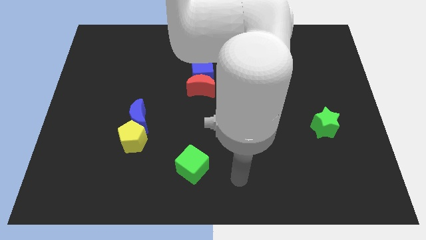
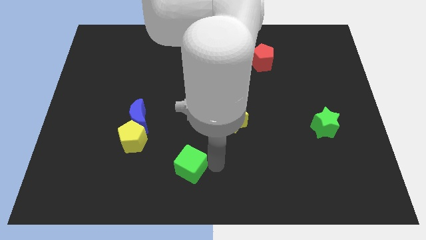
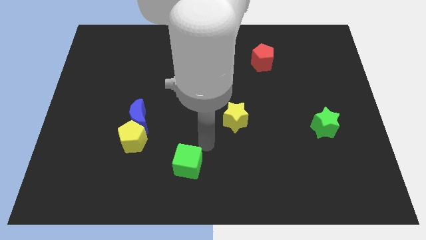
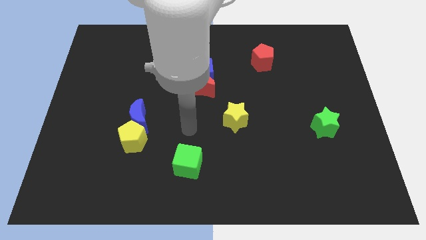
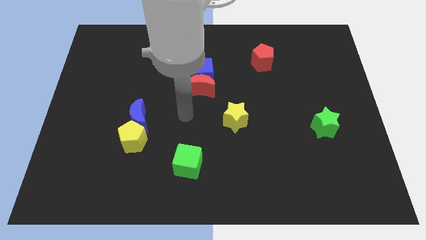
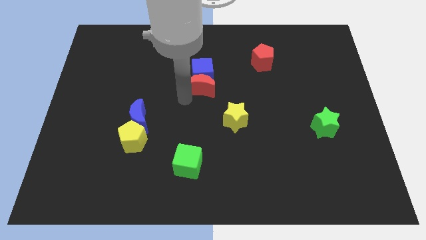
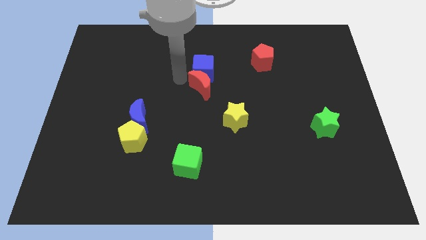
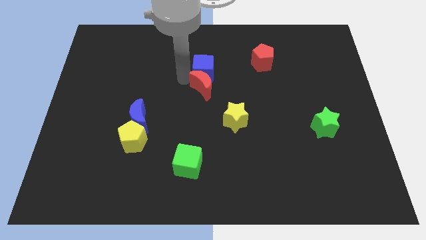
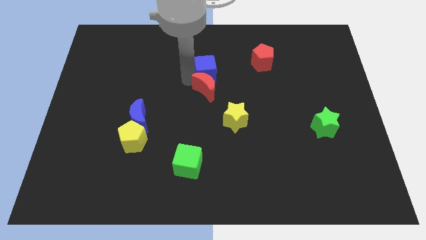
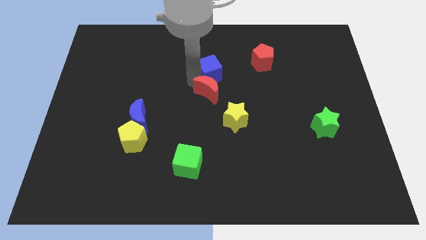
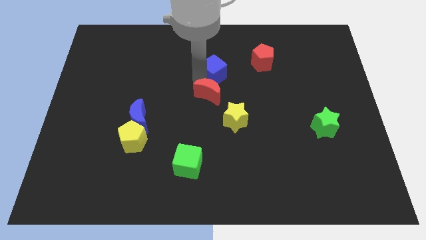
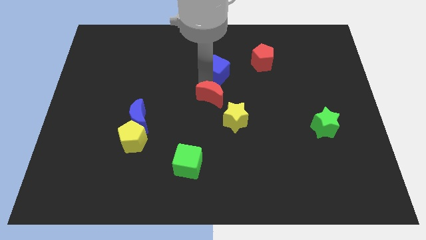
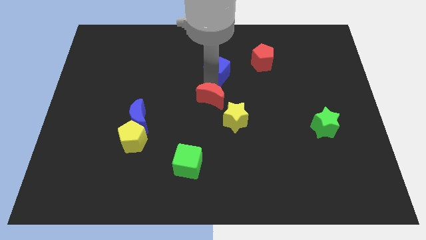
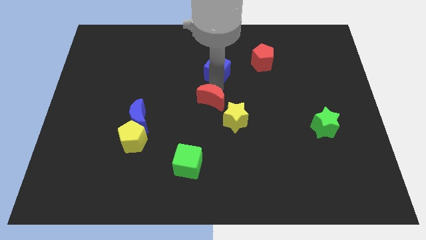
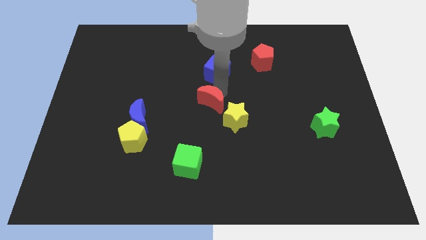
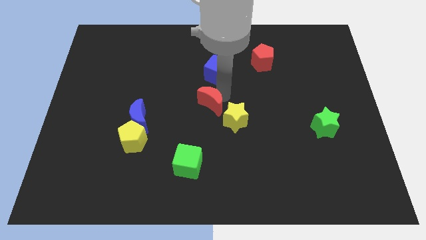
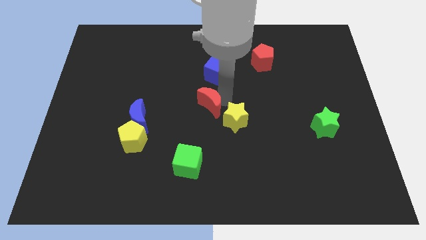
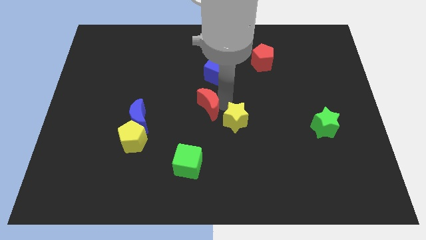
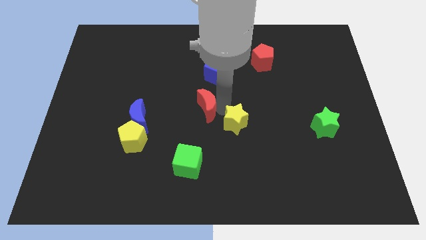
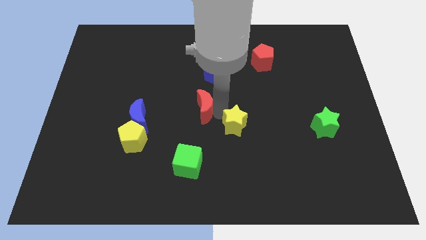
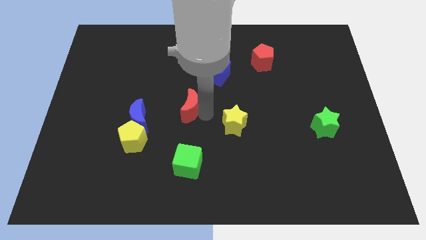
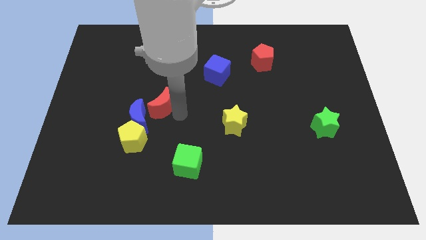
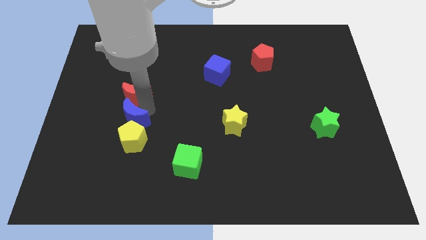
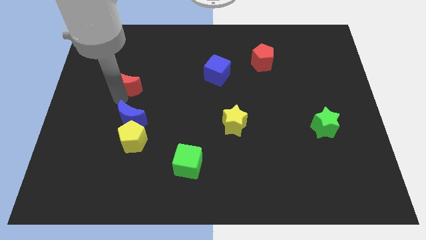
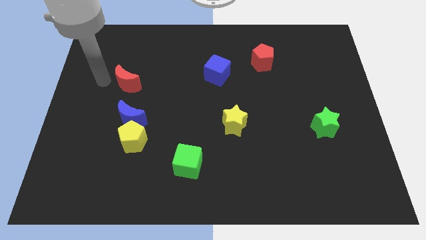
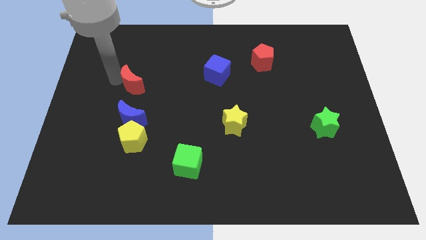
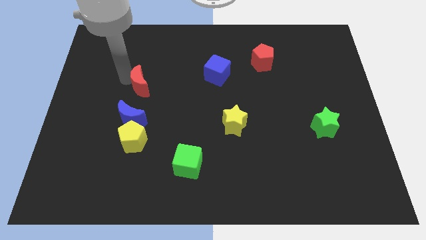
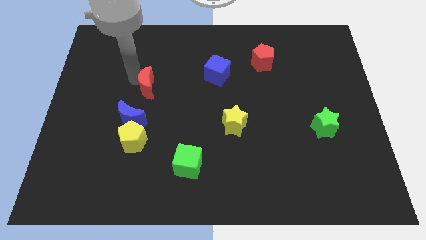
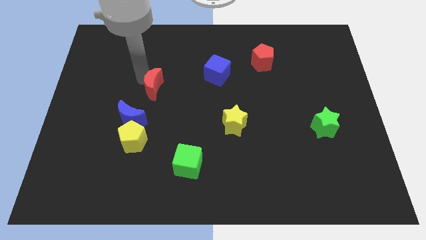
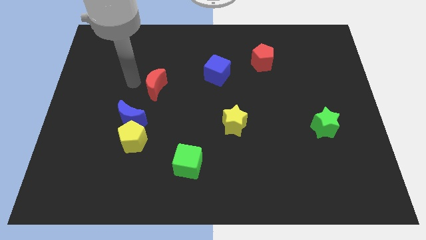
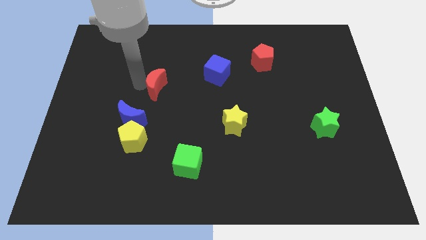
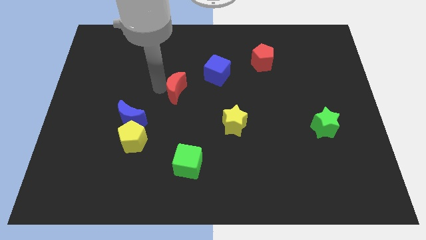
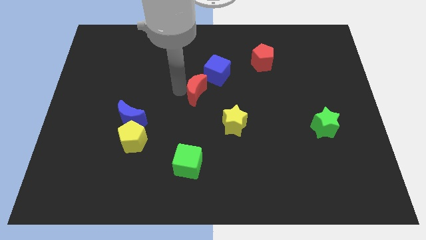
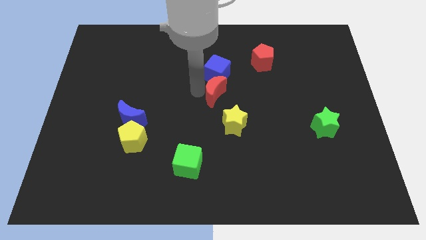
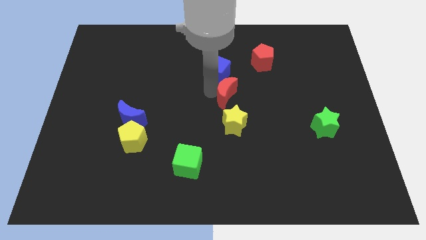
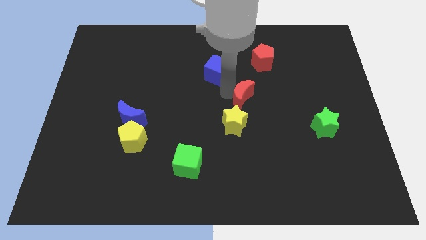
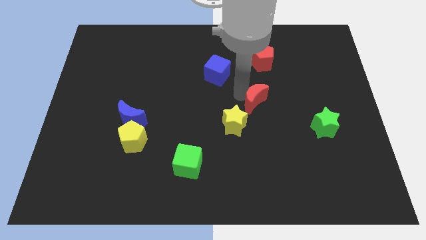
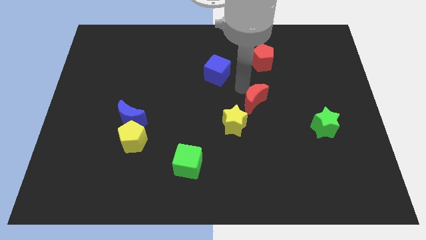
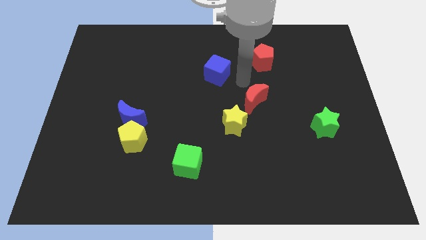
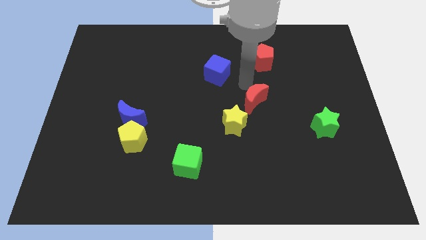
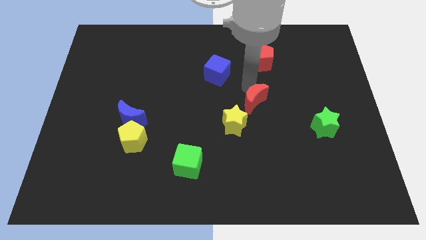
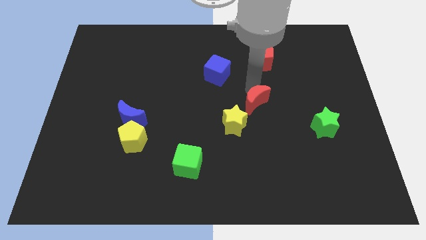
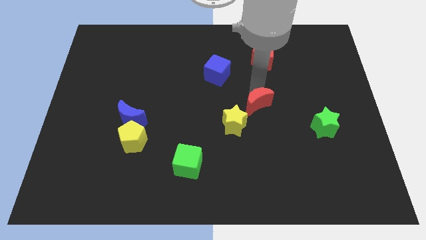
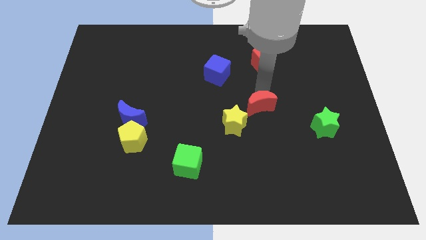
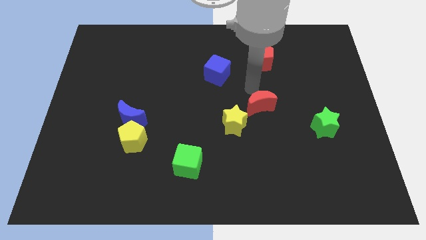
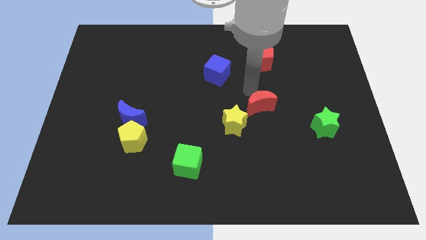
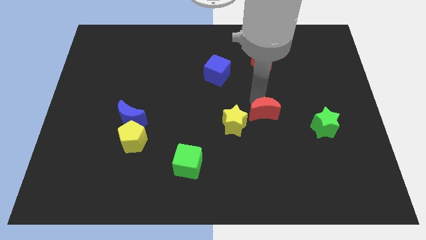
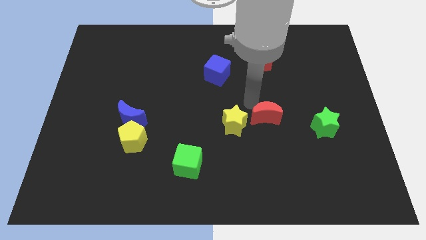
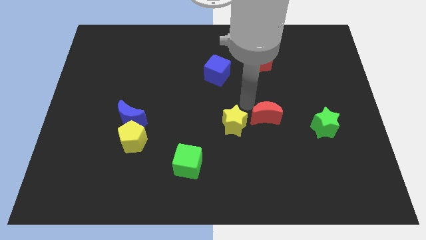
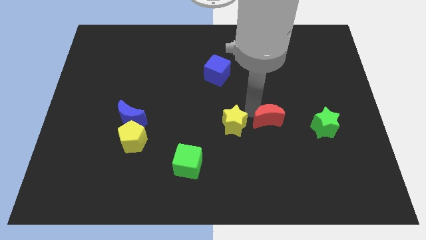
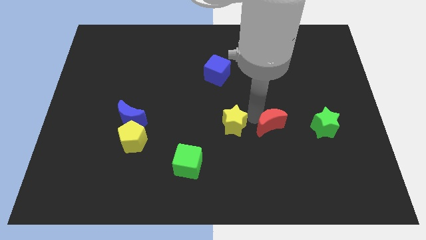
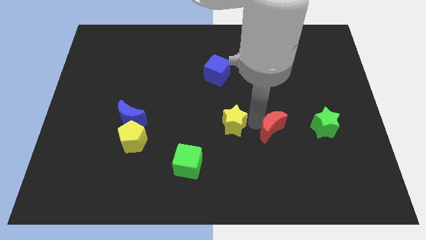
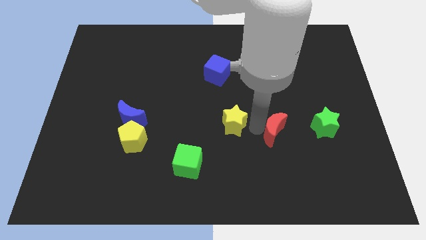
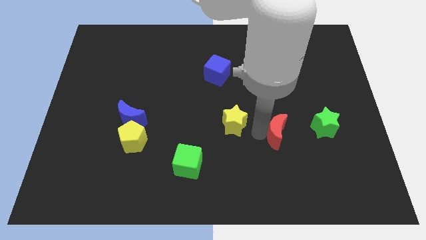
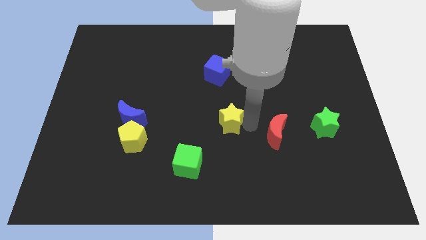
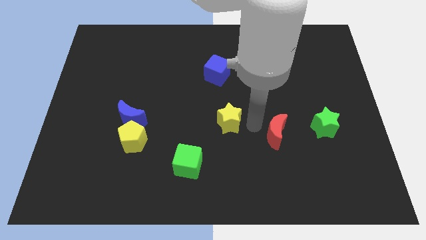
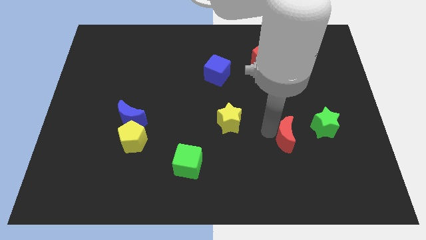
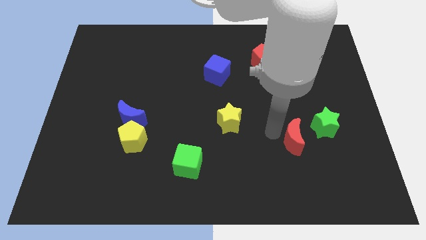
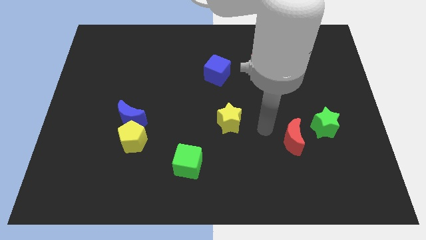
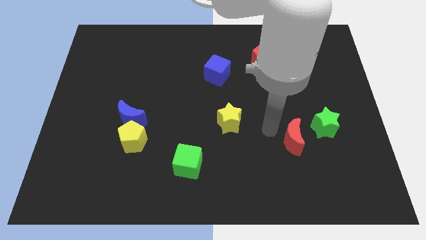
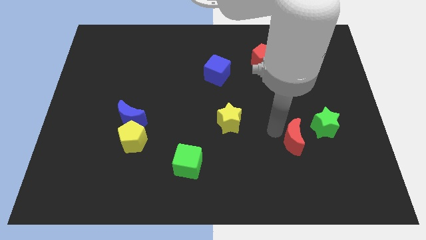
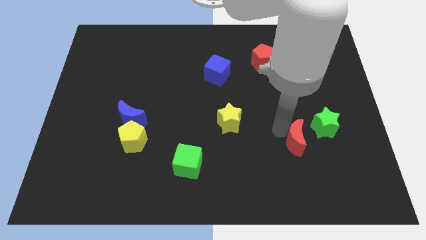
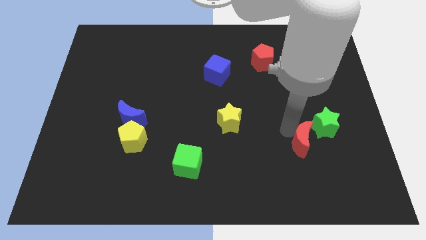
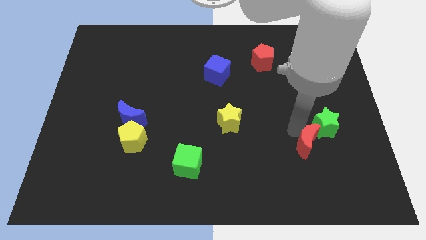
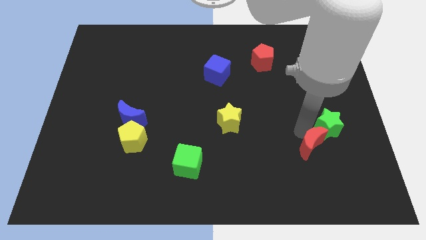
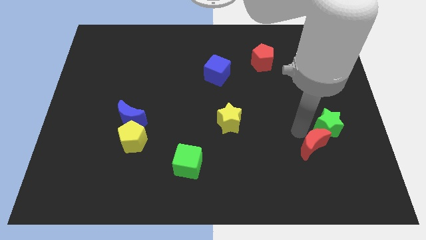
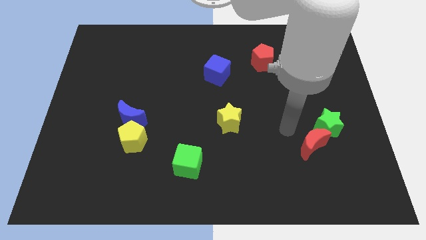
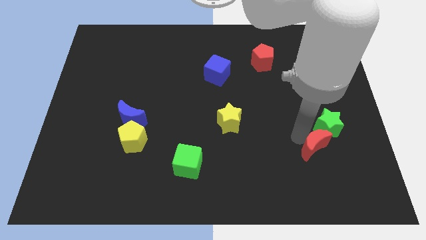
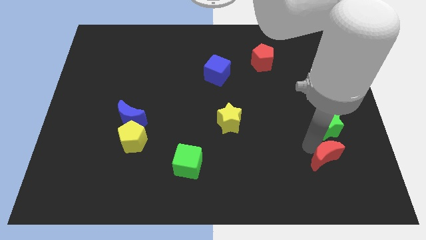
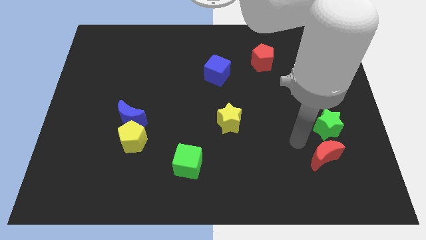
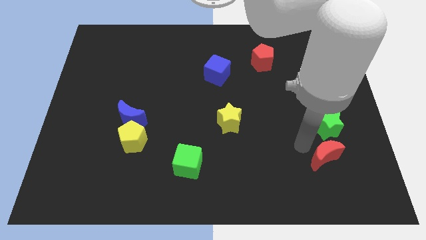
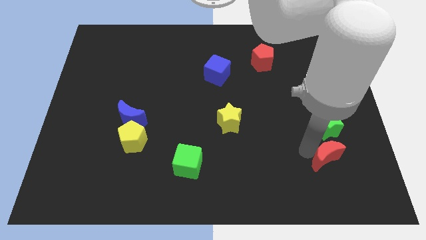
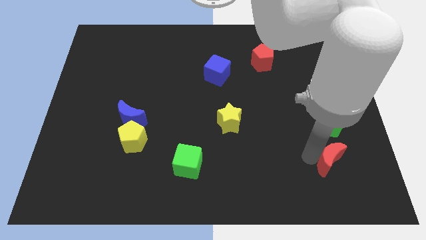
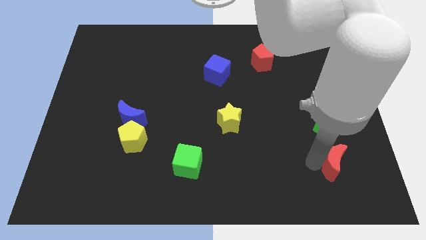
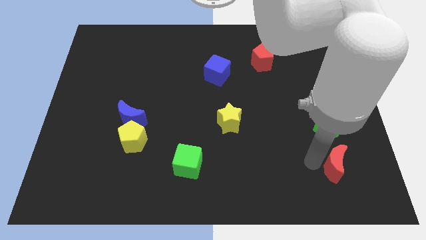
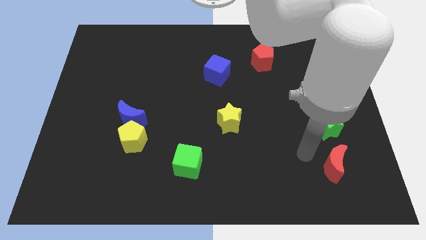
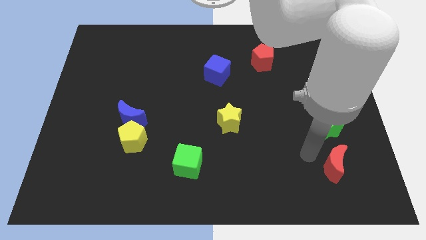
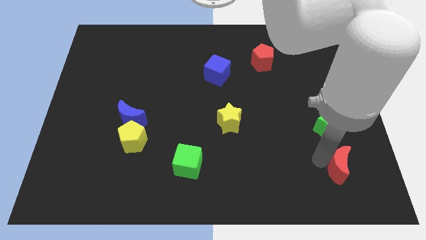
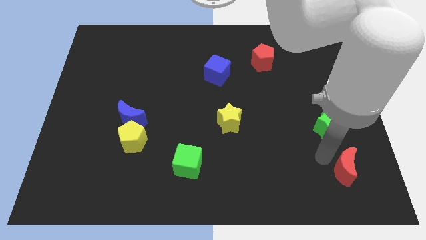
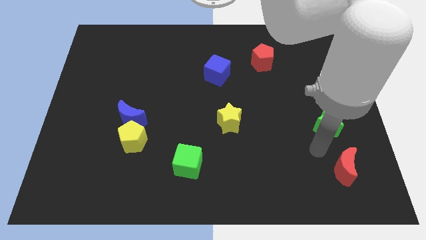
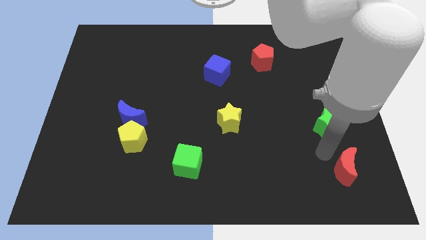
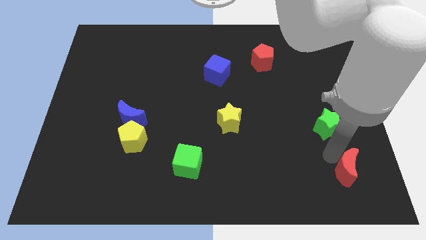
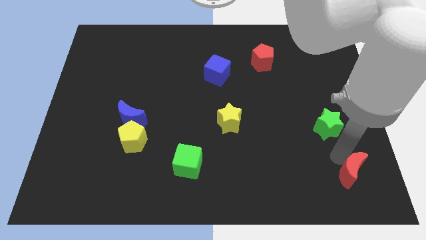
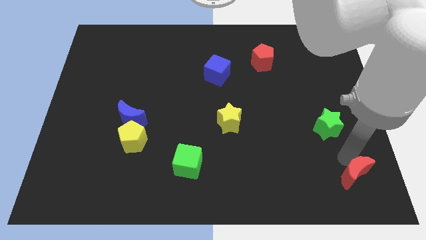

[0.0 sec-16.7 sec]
push the red moon to the bottom right
